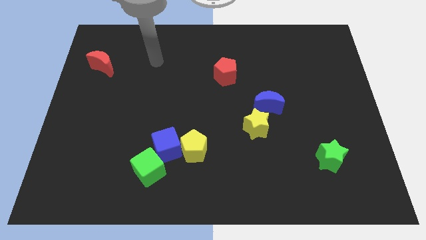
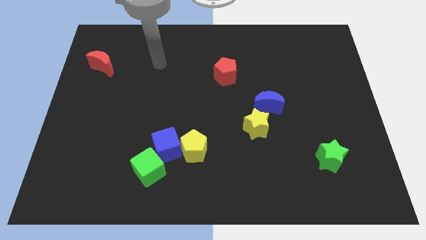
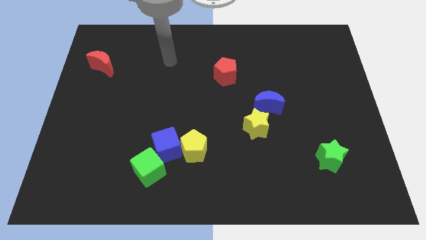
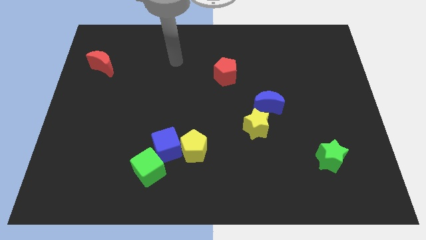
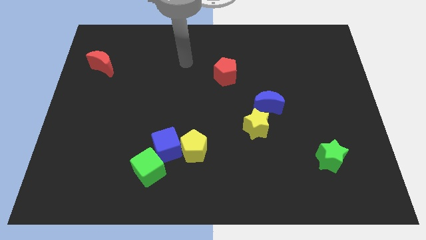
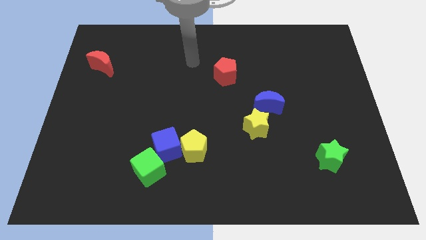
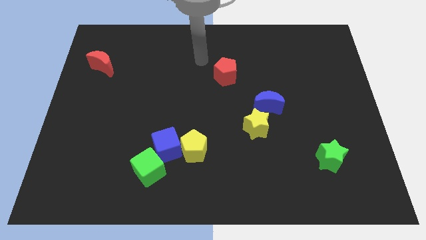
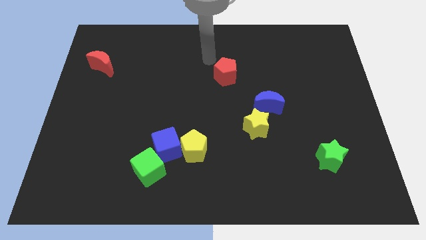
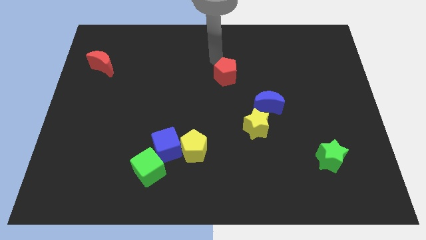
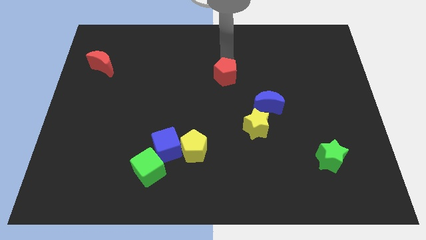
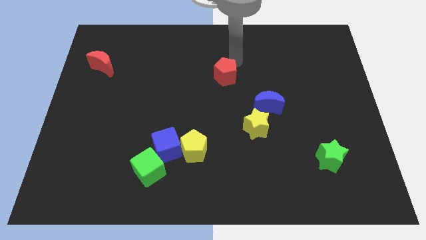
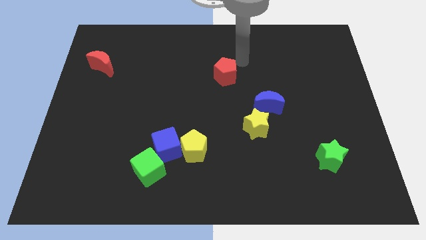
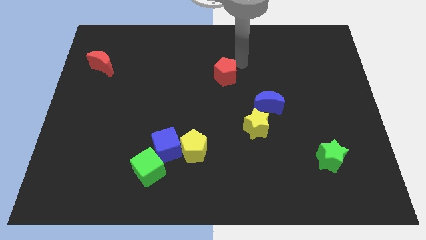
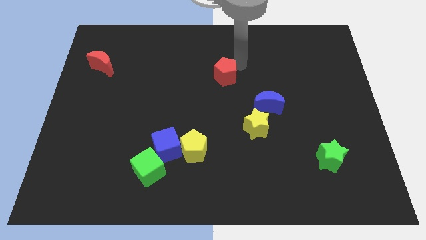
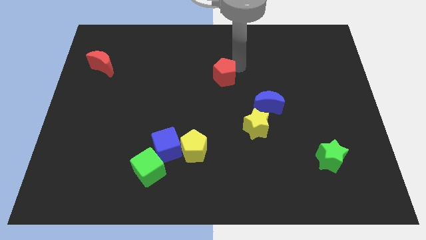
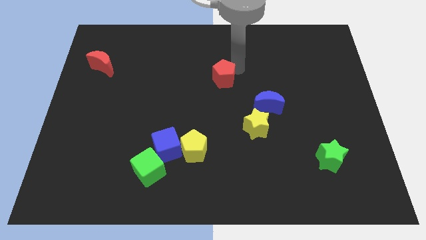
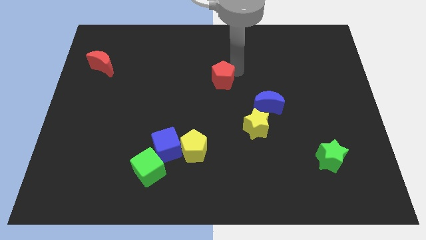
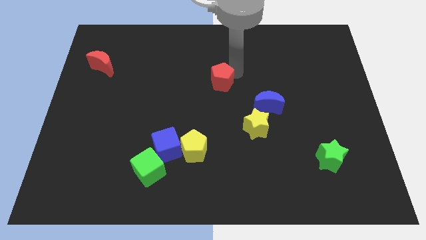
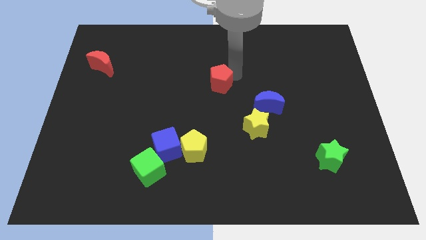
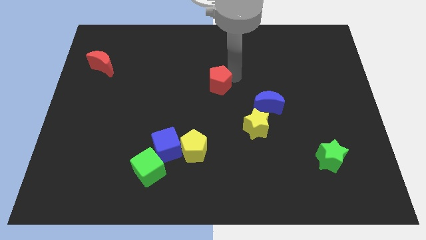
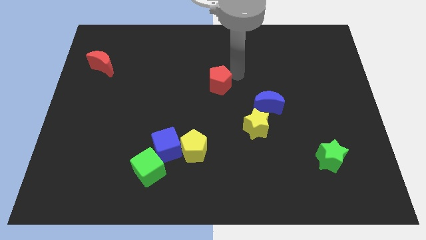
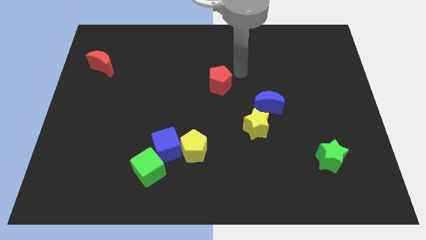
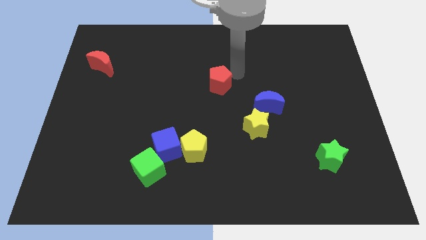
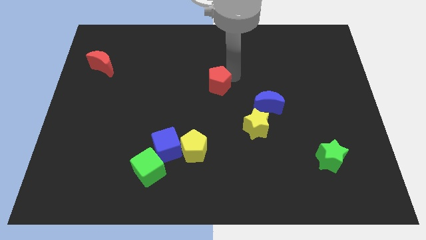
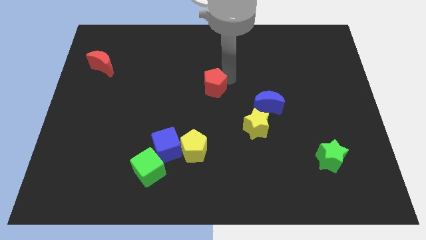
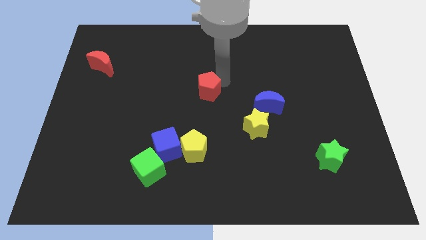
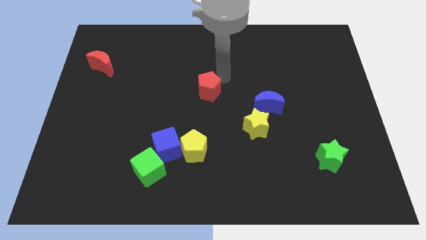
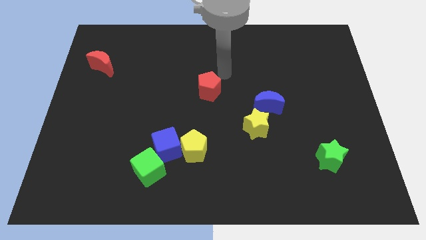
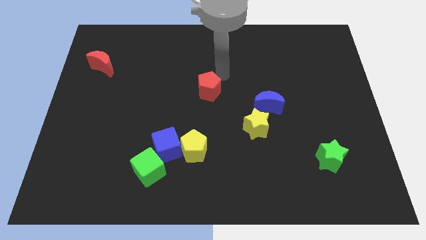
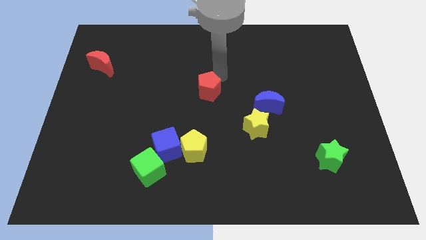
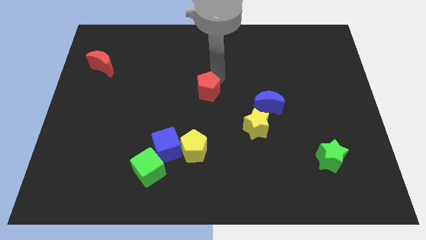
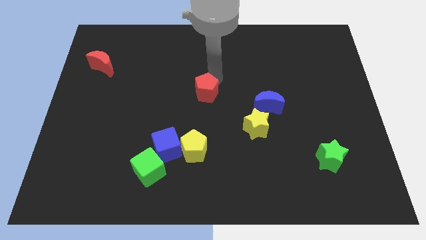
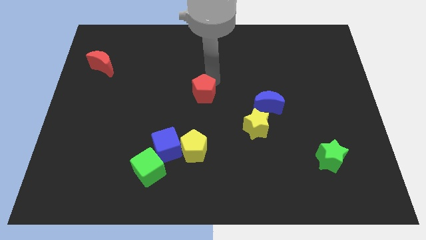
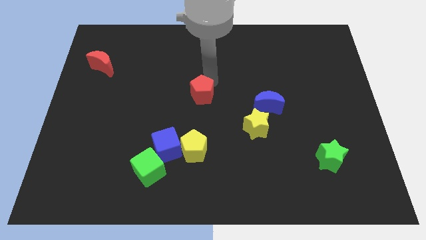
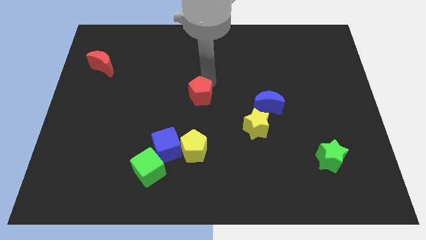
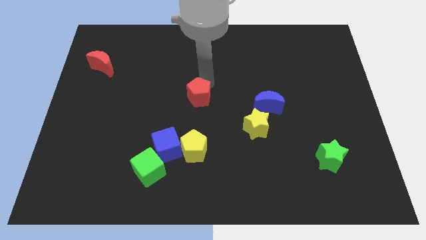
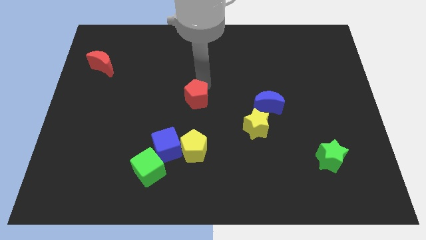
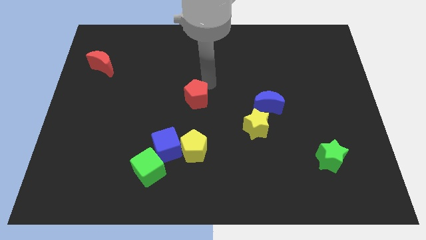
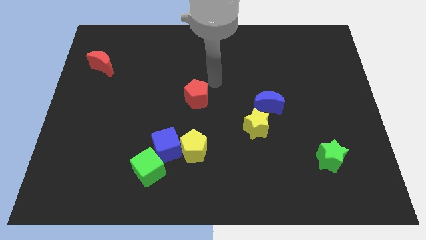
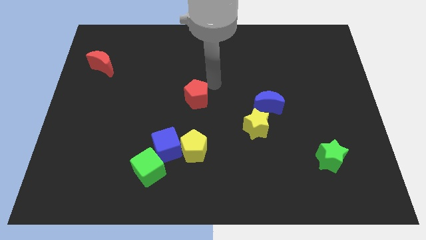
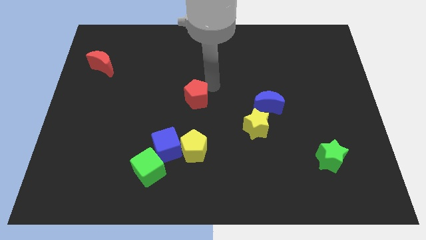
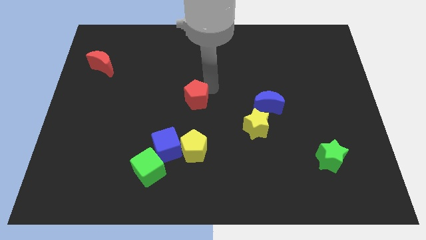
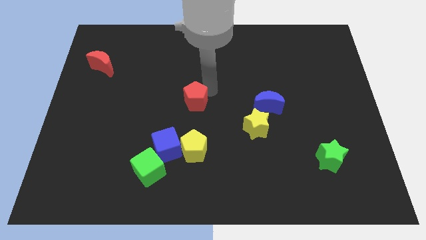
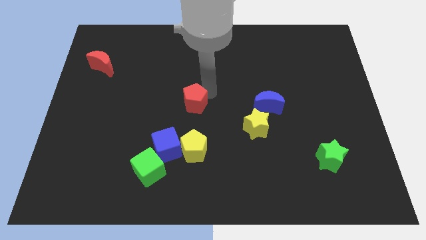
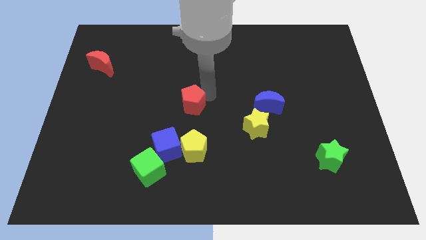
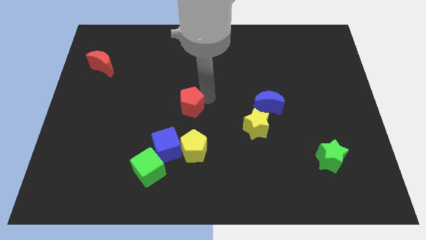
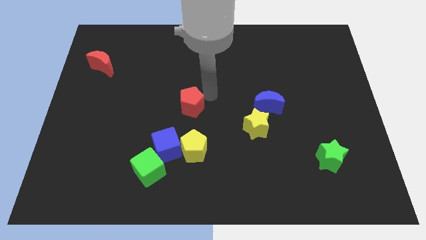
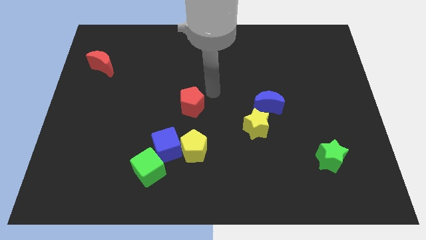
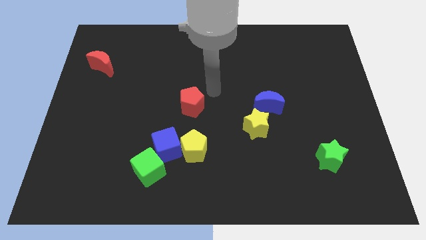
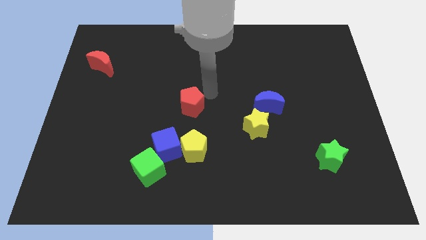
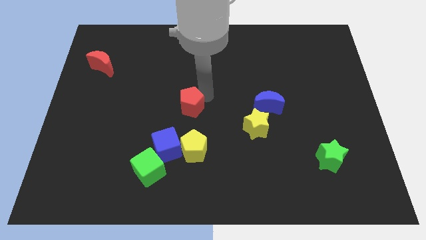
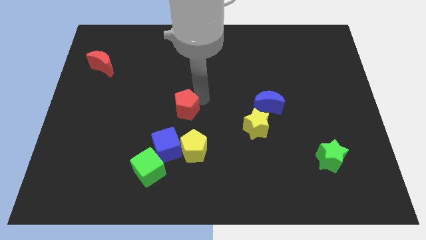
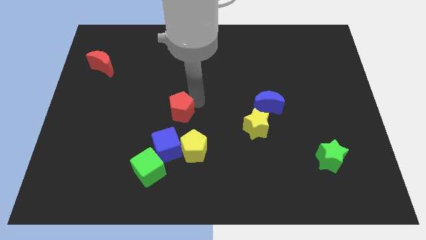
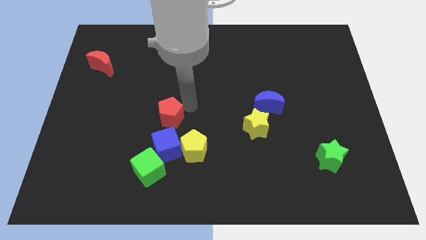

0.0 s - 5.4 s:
push the red pentagon above the green cube

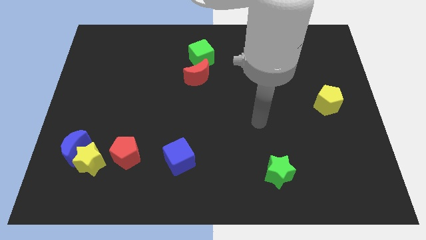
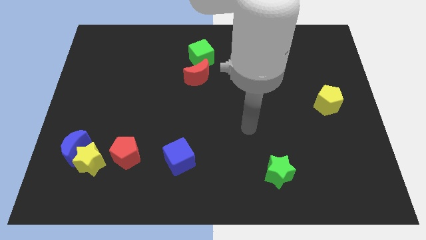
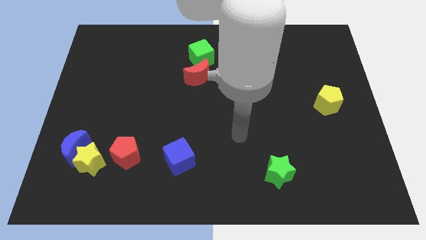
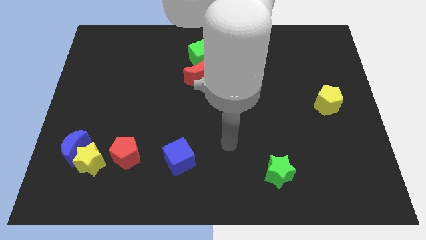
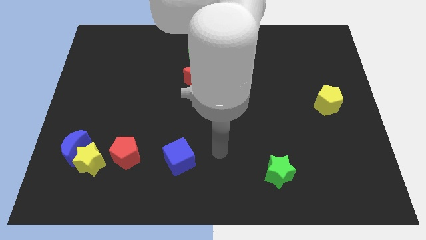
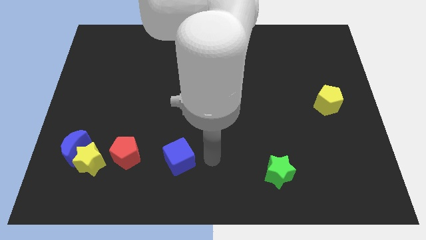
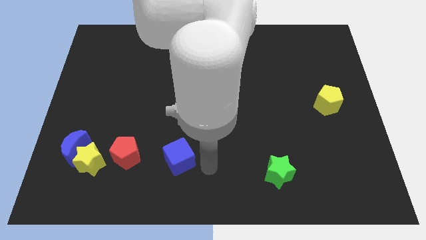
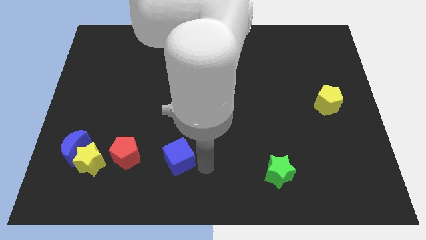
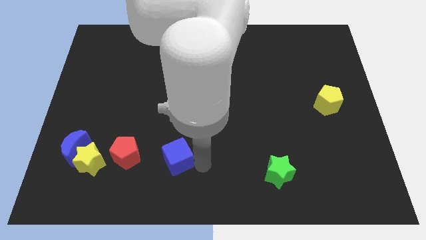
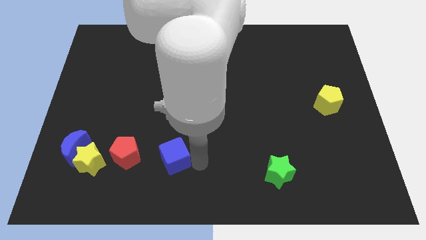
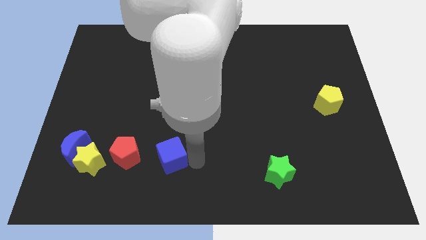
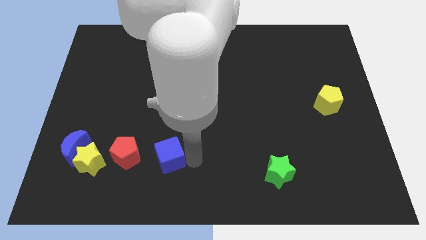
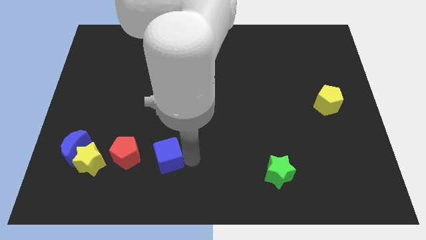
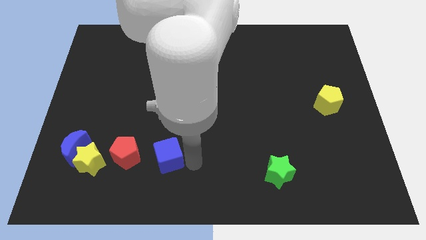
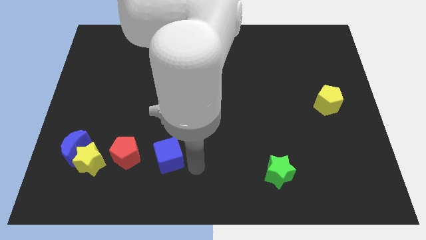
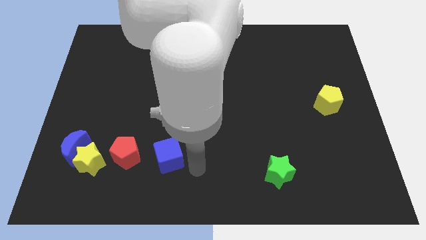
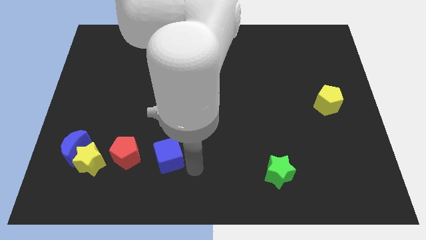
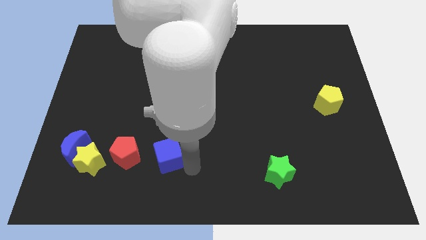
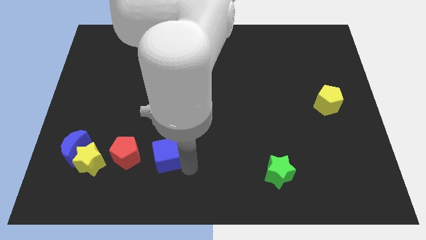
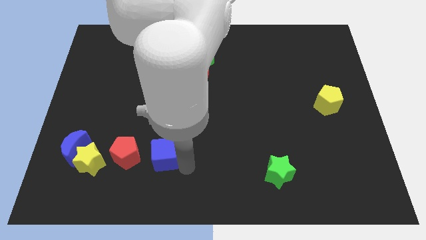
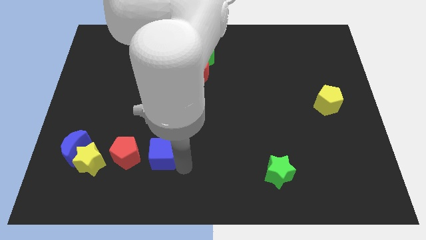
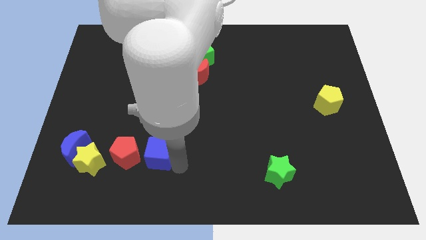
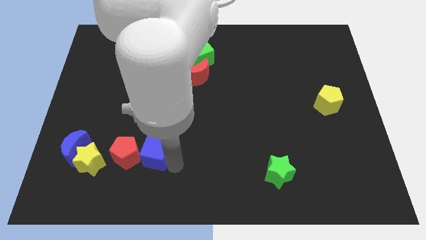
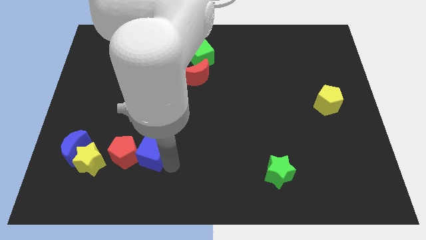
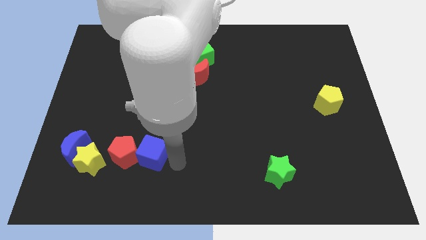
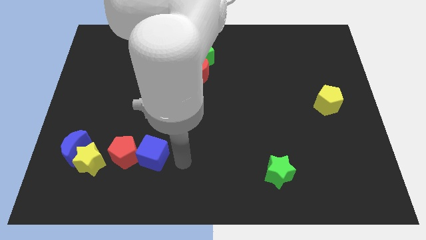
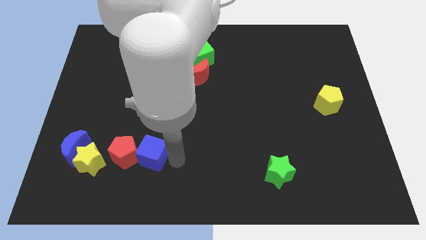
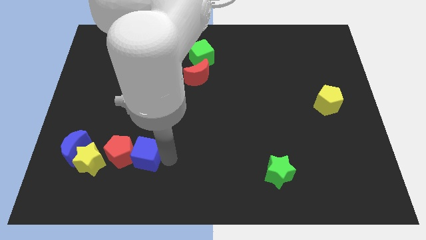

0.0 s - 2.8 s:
push the blue cube to the right side of the blue moon

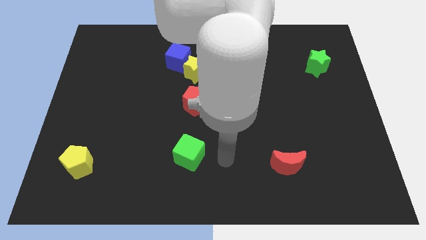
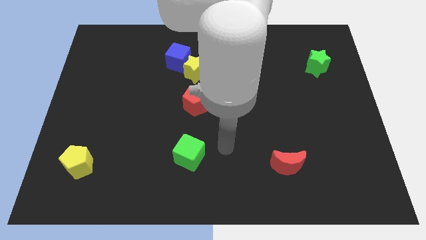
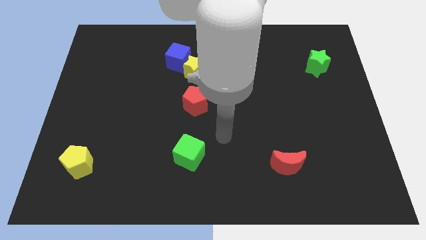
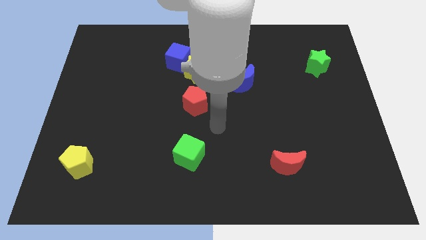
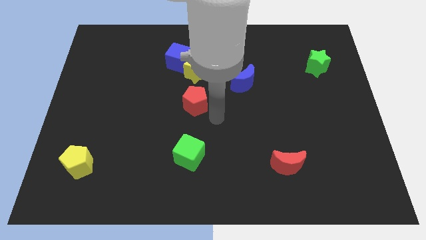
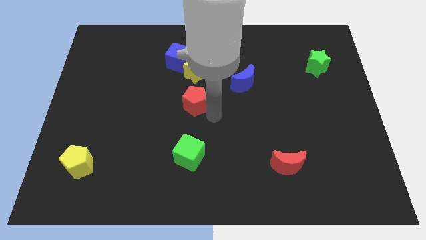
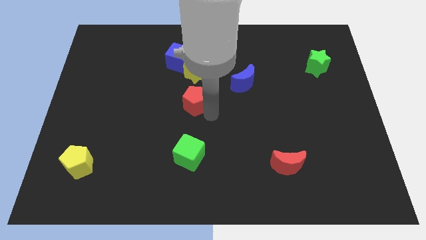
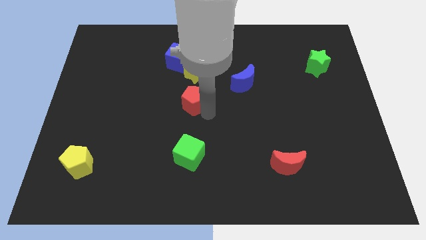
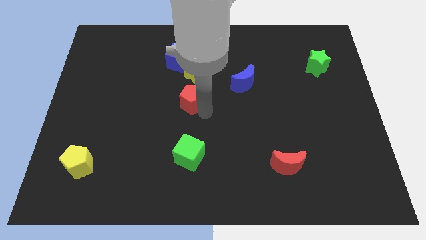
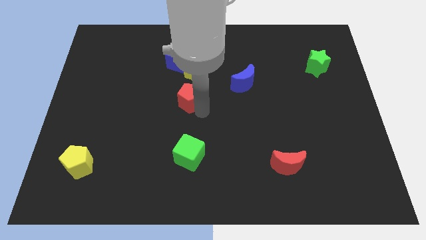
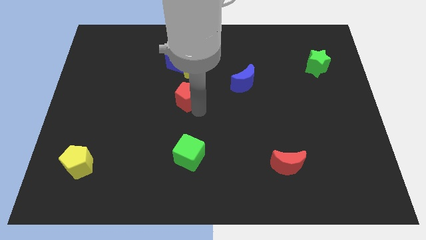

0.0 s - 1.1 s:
put the red pentagon to the bottom left of the yellow star
